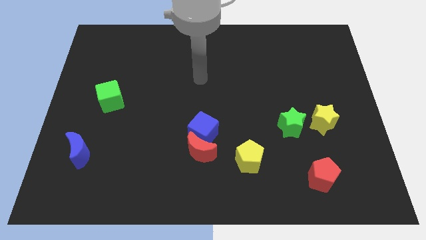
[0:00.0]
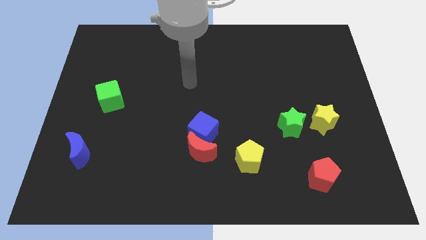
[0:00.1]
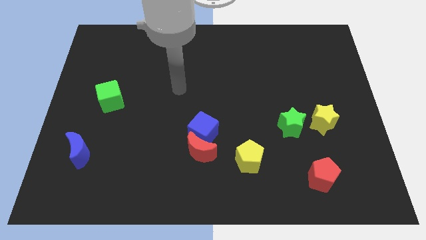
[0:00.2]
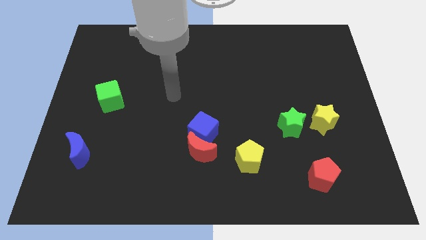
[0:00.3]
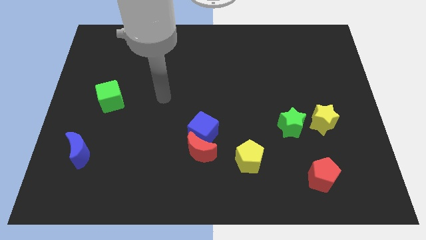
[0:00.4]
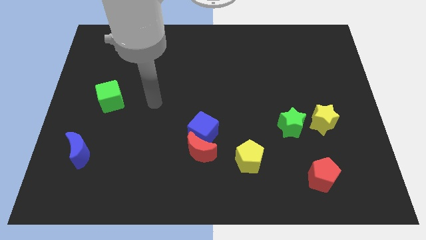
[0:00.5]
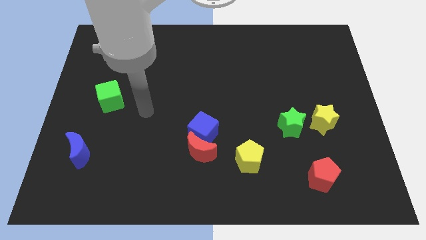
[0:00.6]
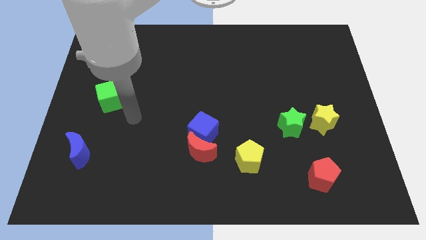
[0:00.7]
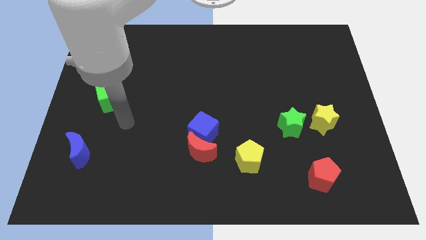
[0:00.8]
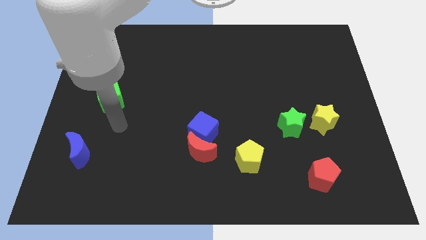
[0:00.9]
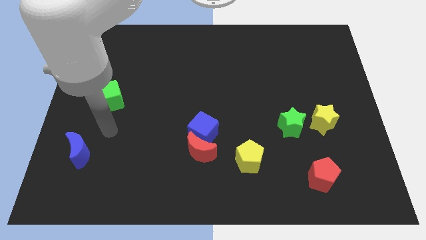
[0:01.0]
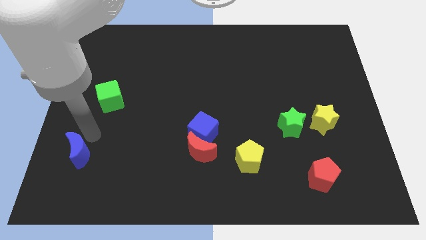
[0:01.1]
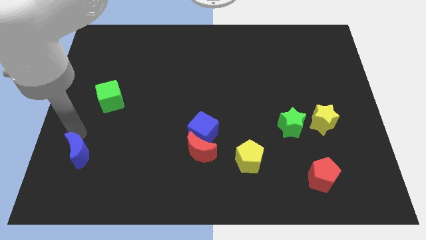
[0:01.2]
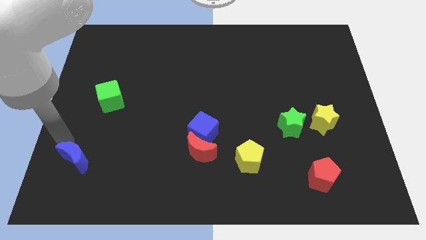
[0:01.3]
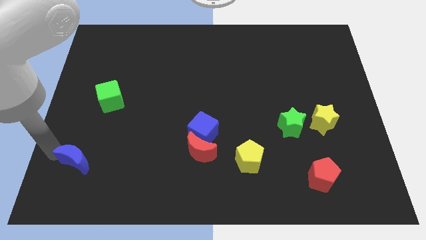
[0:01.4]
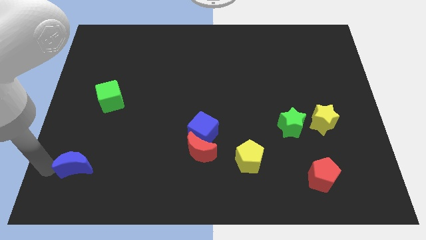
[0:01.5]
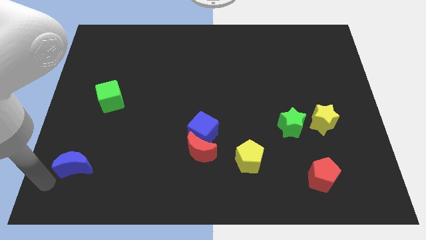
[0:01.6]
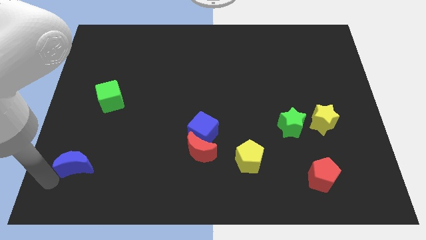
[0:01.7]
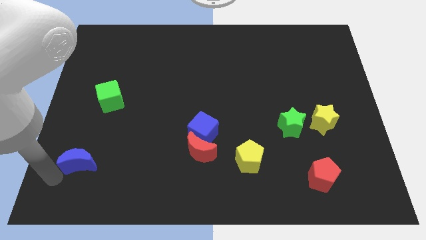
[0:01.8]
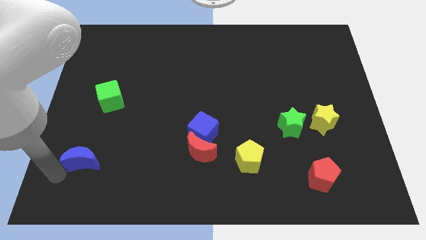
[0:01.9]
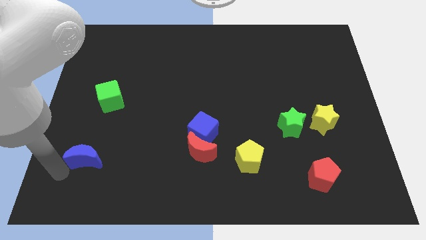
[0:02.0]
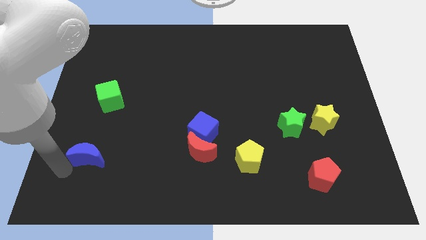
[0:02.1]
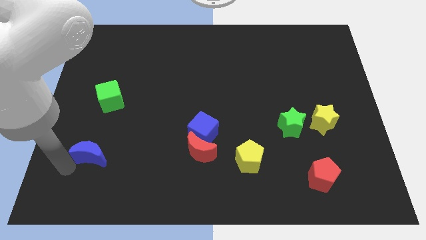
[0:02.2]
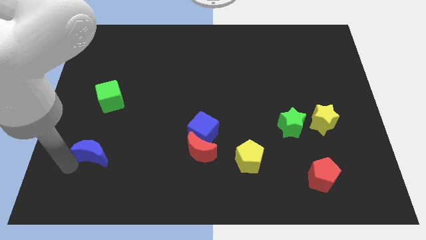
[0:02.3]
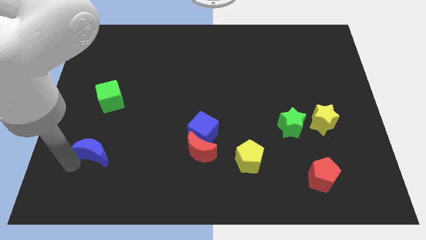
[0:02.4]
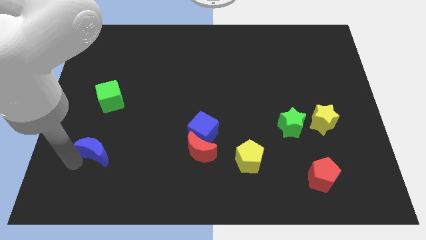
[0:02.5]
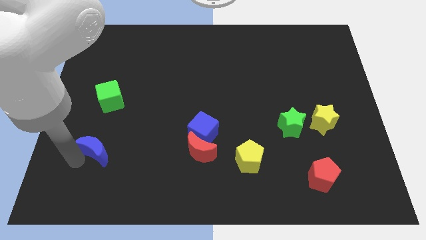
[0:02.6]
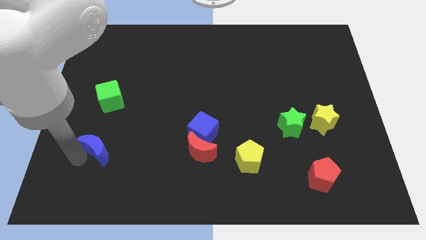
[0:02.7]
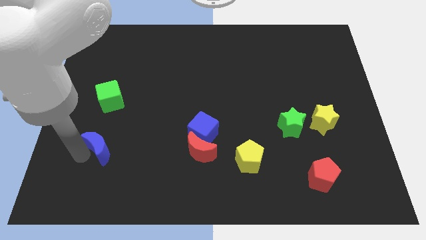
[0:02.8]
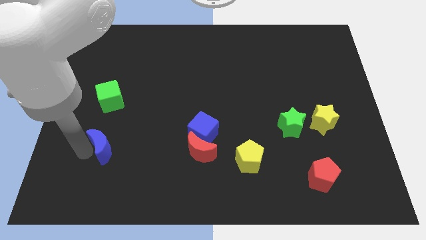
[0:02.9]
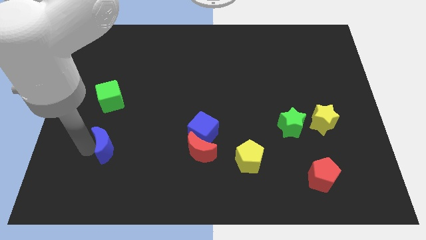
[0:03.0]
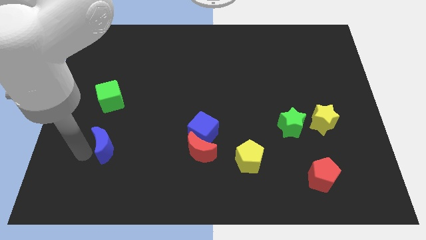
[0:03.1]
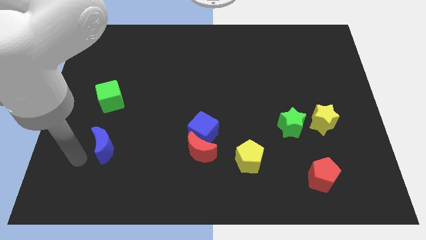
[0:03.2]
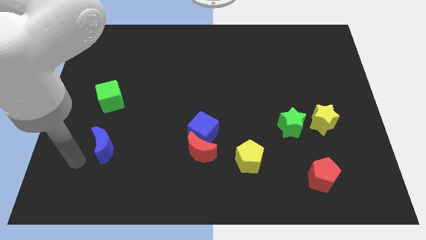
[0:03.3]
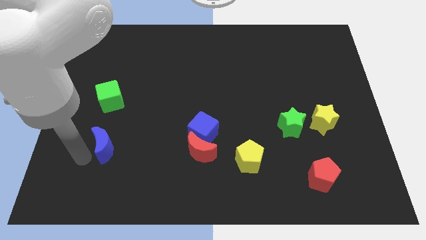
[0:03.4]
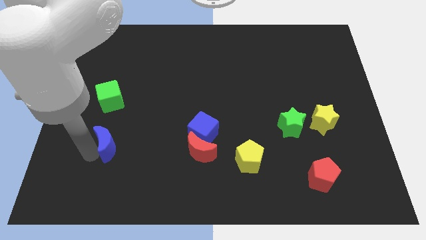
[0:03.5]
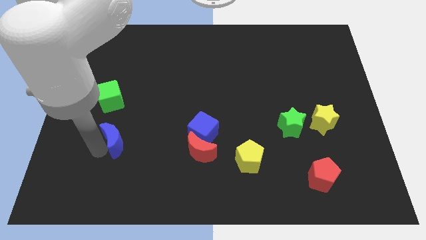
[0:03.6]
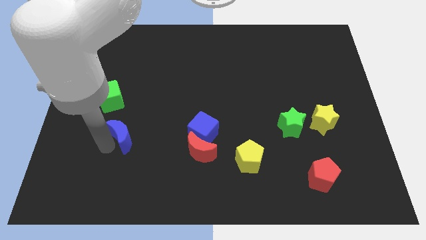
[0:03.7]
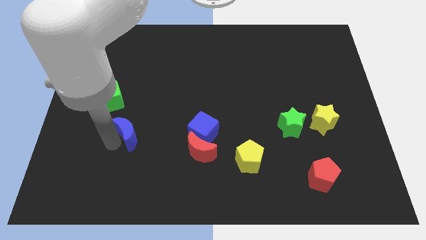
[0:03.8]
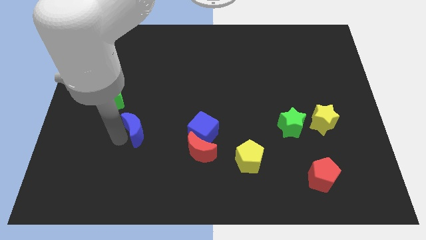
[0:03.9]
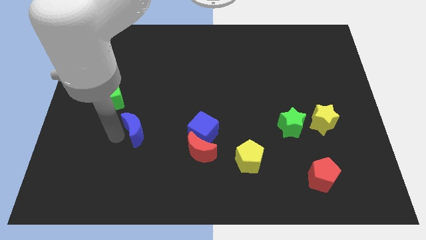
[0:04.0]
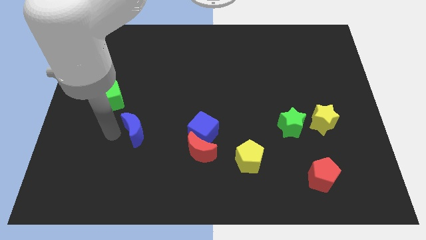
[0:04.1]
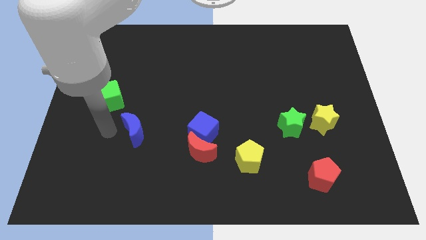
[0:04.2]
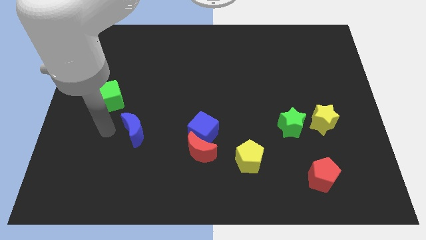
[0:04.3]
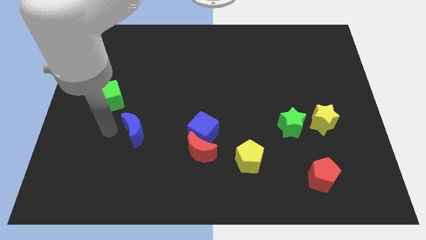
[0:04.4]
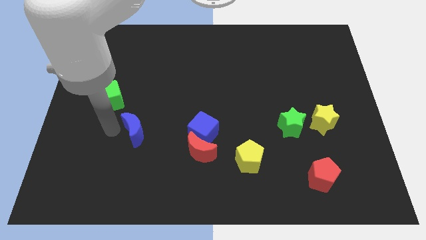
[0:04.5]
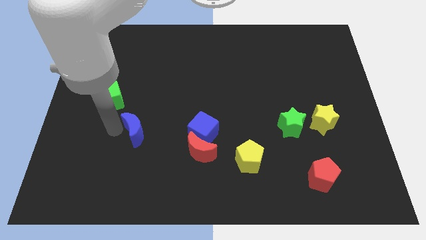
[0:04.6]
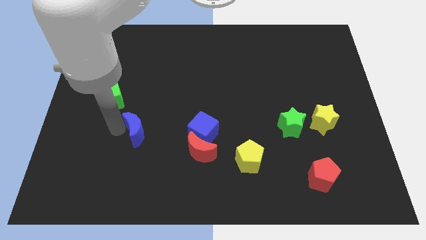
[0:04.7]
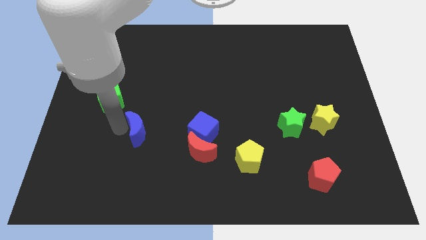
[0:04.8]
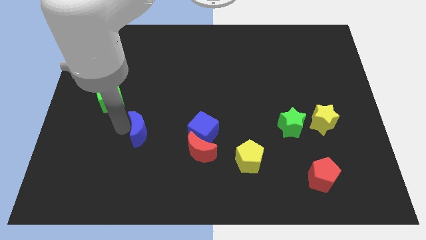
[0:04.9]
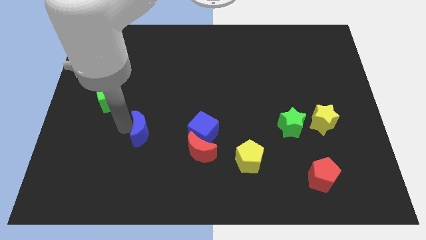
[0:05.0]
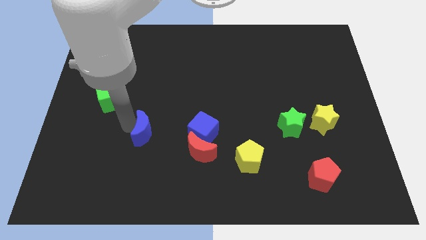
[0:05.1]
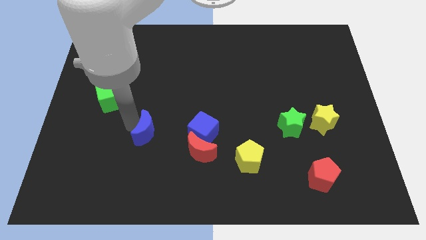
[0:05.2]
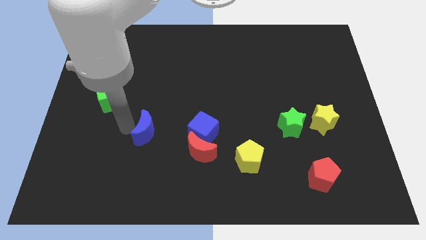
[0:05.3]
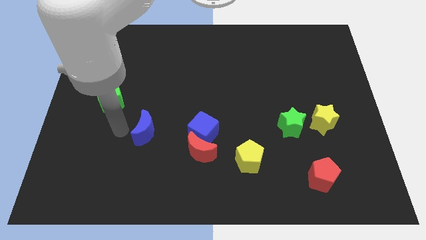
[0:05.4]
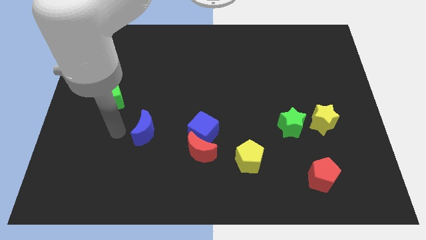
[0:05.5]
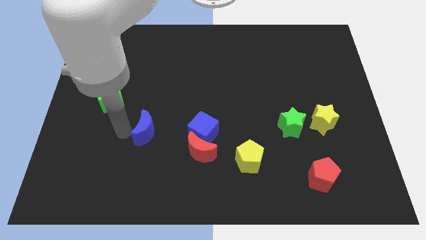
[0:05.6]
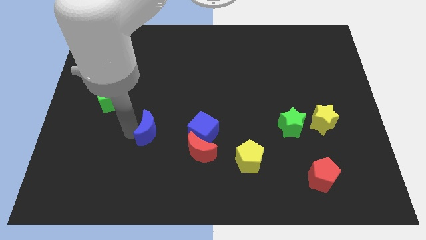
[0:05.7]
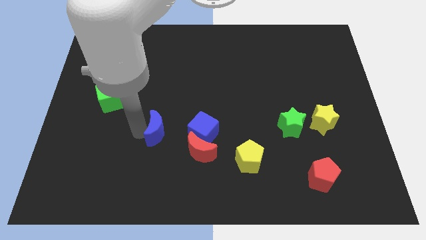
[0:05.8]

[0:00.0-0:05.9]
move the blue moon diagonally up and to the left of the red moon

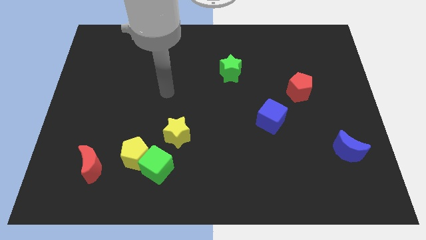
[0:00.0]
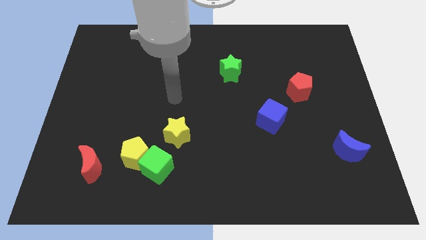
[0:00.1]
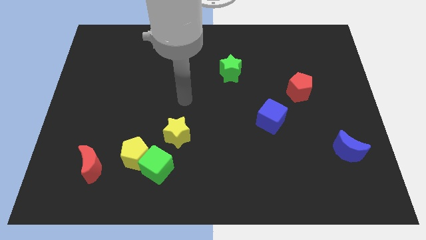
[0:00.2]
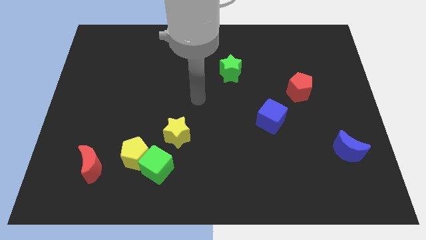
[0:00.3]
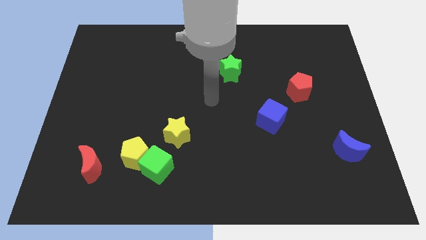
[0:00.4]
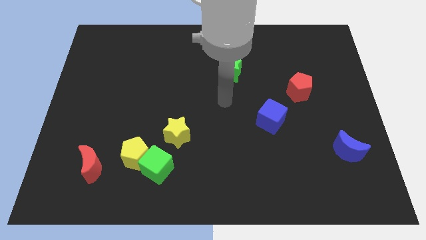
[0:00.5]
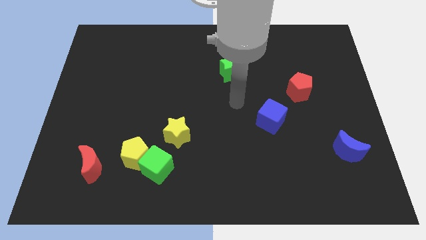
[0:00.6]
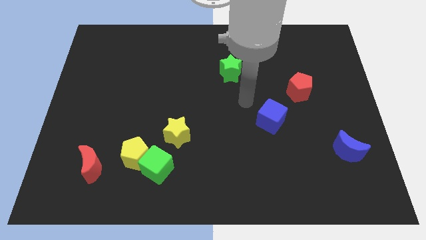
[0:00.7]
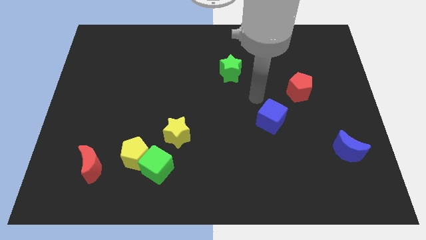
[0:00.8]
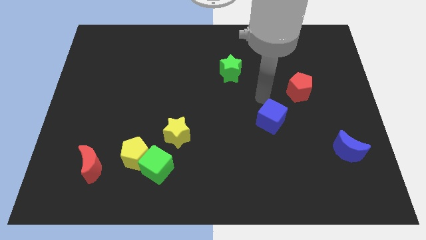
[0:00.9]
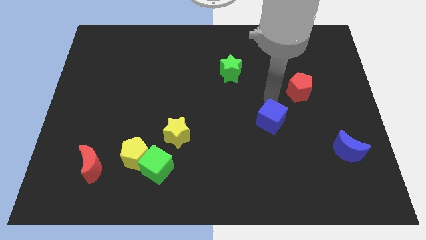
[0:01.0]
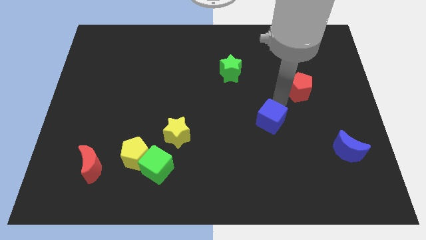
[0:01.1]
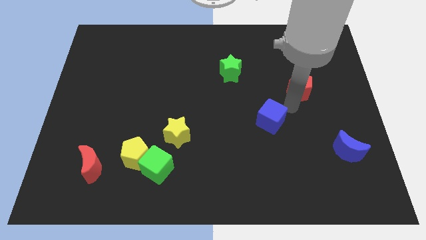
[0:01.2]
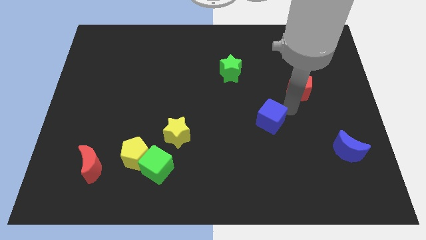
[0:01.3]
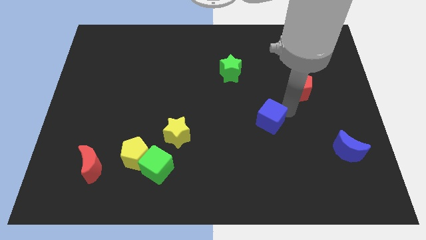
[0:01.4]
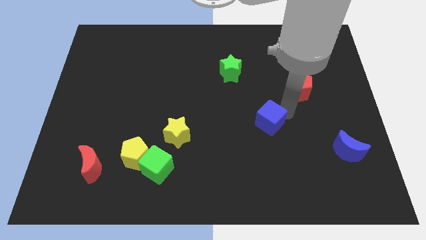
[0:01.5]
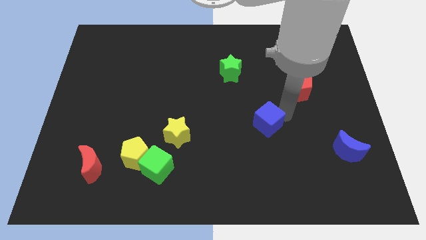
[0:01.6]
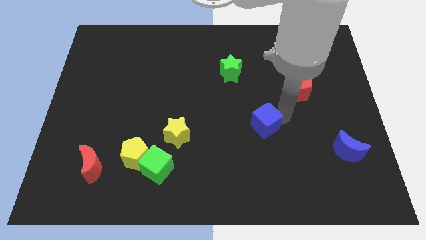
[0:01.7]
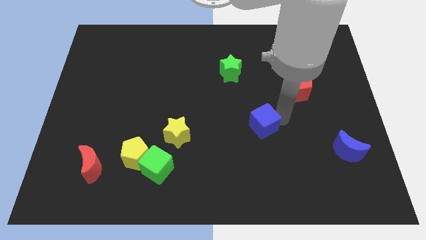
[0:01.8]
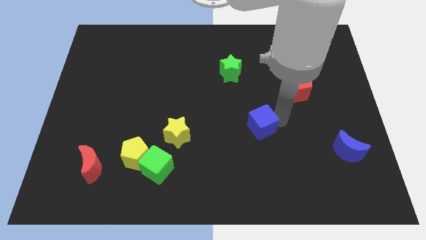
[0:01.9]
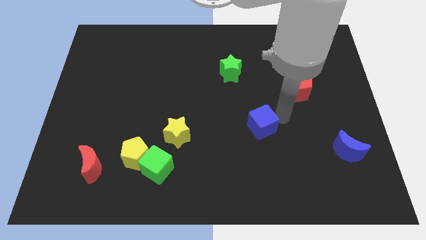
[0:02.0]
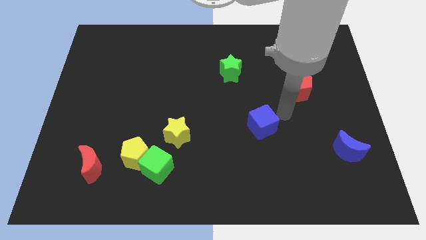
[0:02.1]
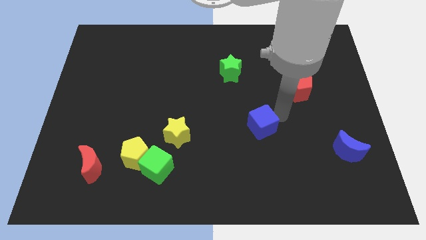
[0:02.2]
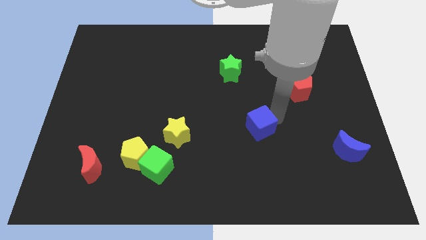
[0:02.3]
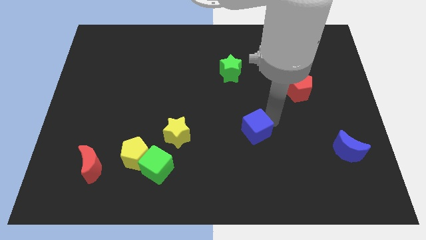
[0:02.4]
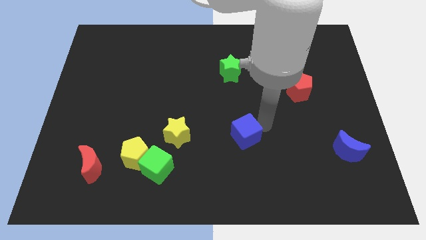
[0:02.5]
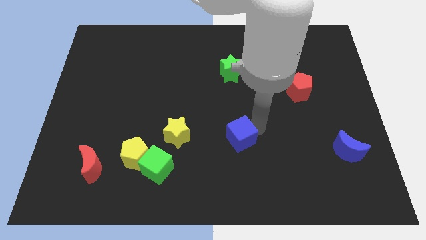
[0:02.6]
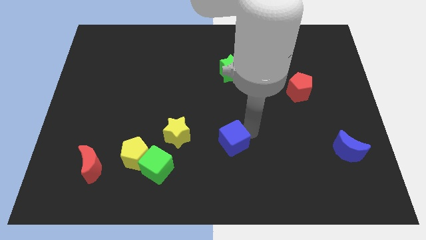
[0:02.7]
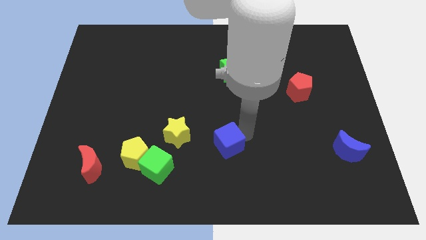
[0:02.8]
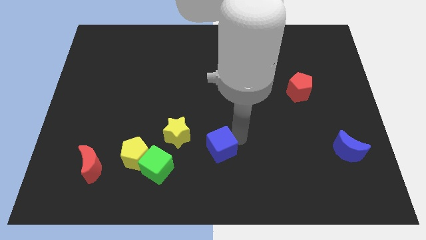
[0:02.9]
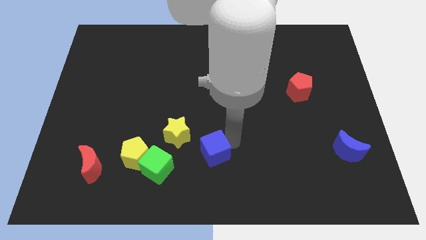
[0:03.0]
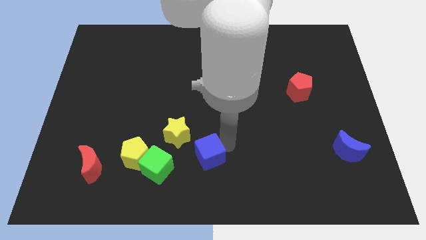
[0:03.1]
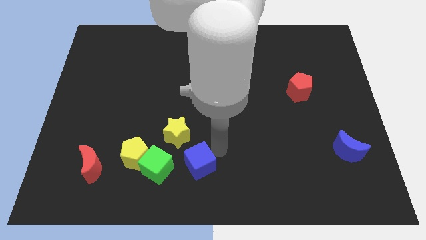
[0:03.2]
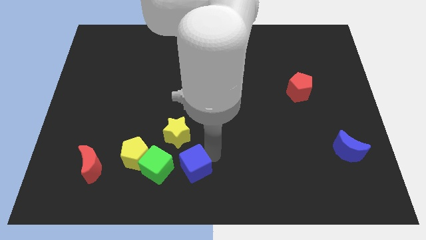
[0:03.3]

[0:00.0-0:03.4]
push the blue cube to the bottom side of the yellow star
